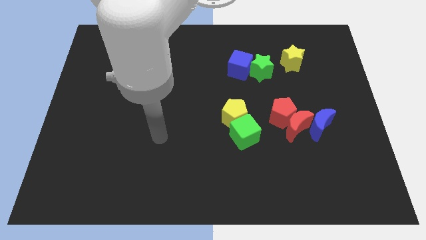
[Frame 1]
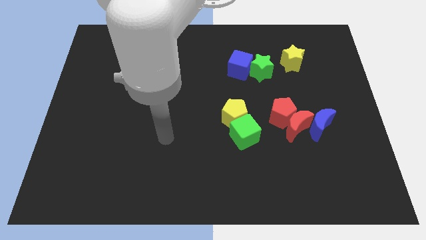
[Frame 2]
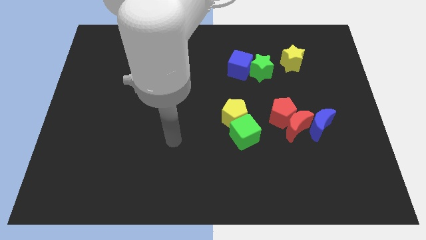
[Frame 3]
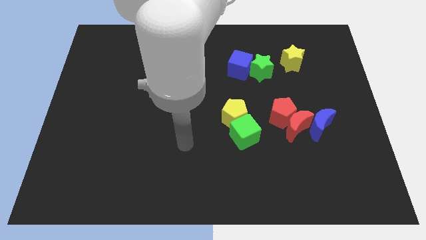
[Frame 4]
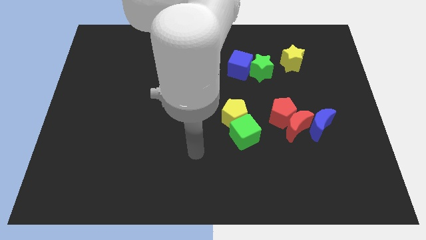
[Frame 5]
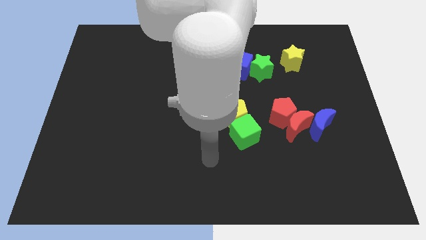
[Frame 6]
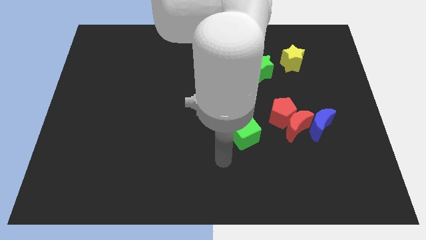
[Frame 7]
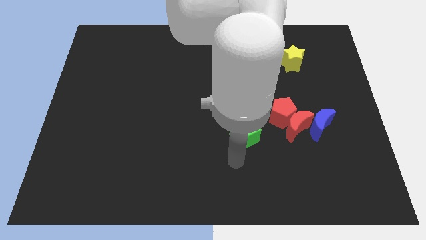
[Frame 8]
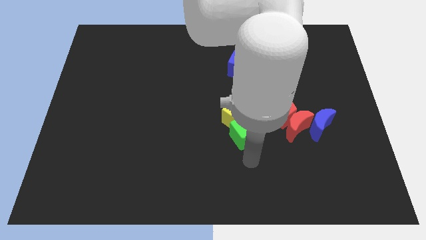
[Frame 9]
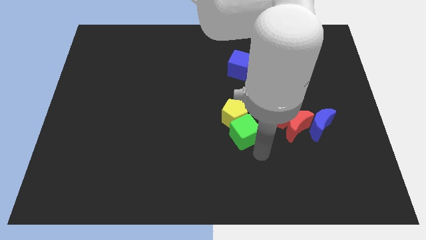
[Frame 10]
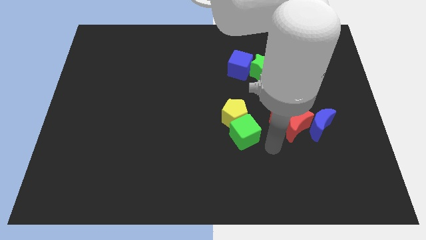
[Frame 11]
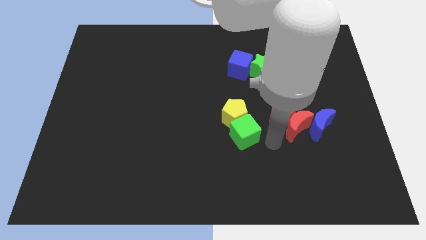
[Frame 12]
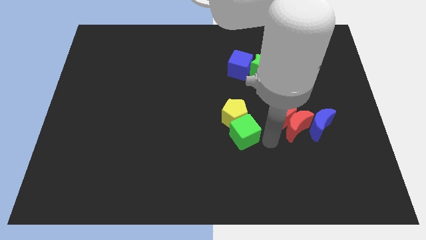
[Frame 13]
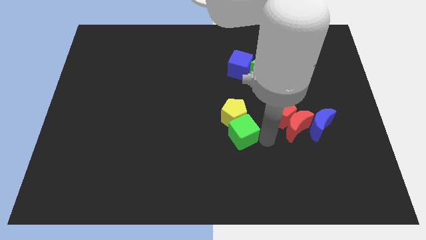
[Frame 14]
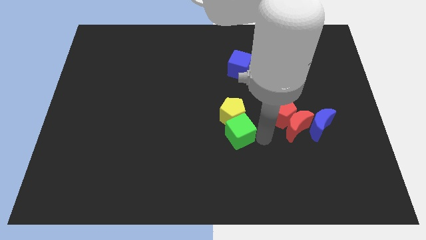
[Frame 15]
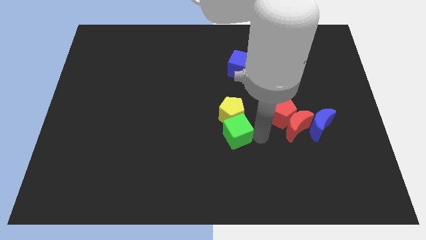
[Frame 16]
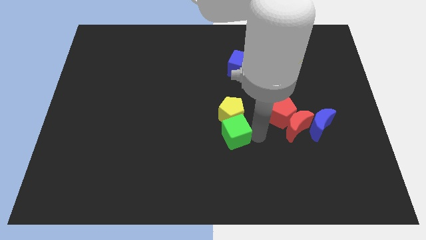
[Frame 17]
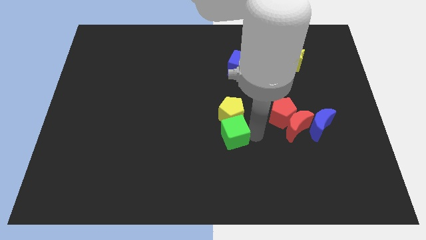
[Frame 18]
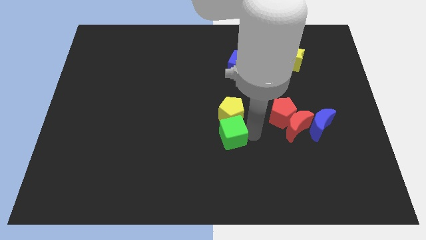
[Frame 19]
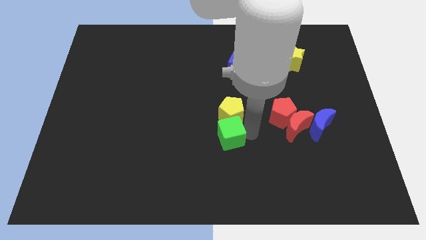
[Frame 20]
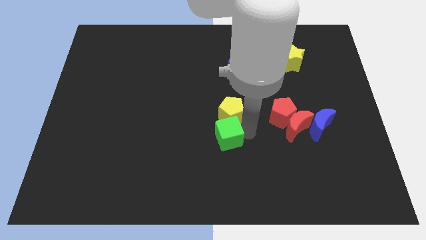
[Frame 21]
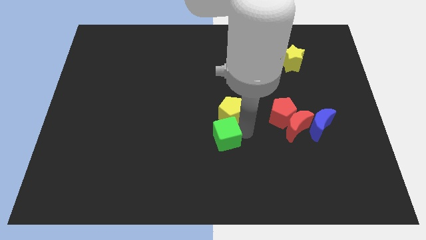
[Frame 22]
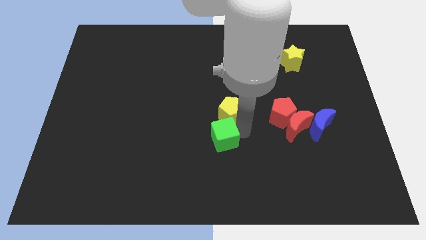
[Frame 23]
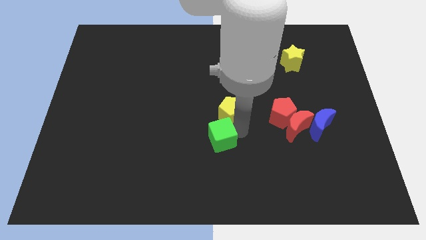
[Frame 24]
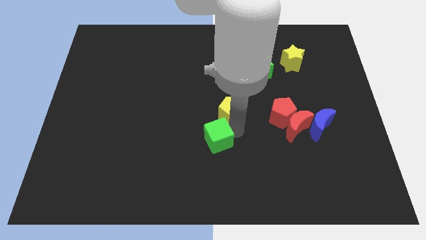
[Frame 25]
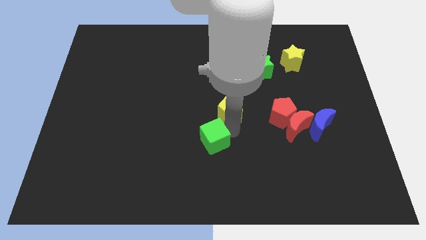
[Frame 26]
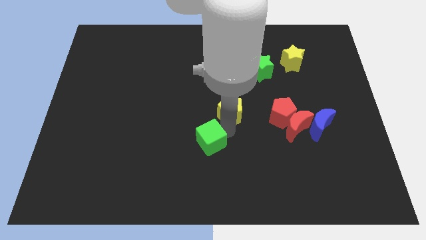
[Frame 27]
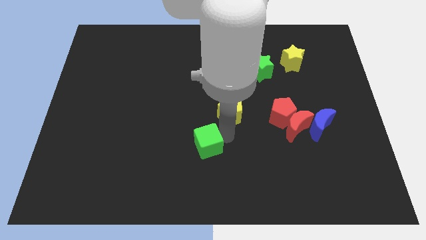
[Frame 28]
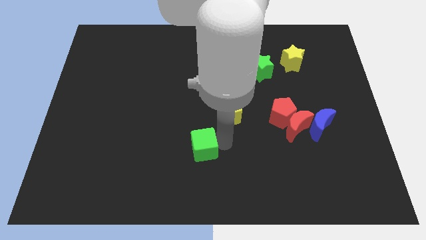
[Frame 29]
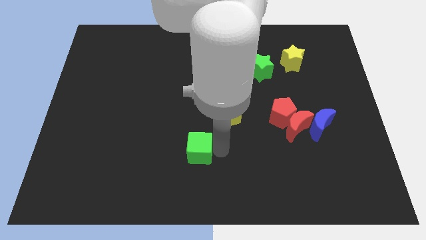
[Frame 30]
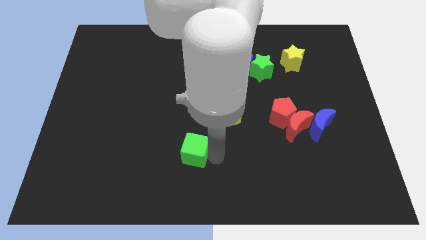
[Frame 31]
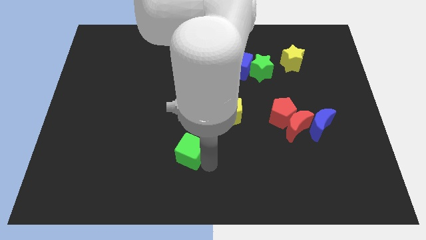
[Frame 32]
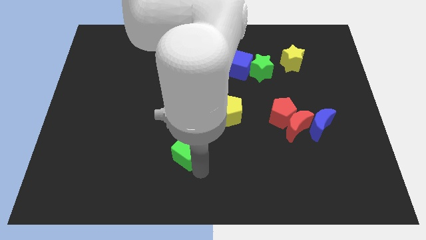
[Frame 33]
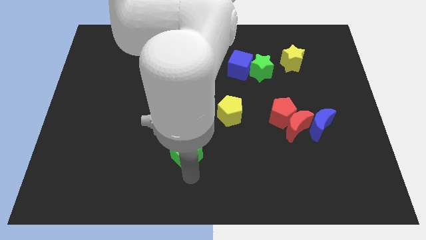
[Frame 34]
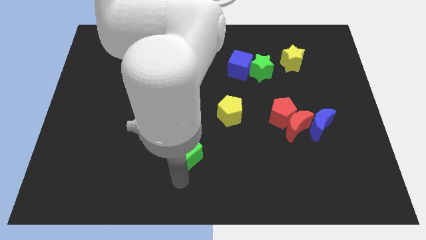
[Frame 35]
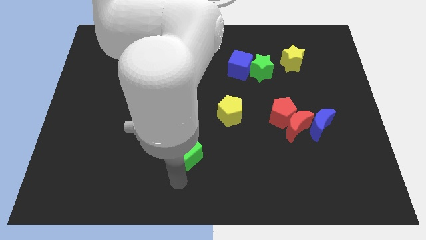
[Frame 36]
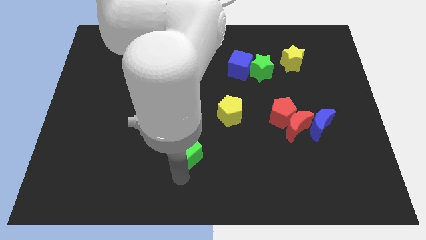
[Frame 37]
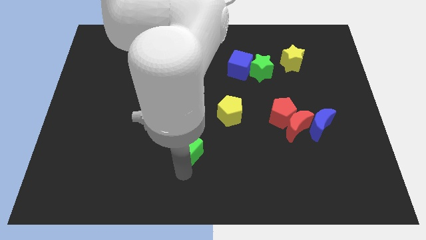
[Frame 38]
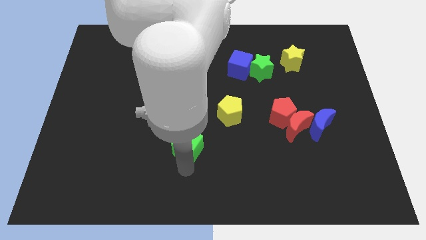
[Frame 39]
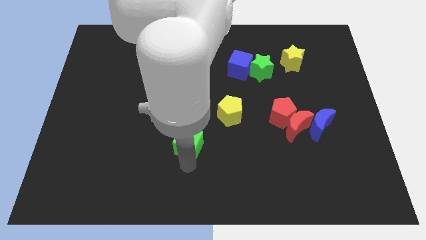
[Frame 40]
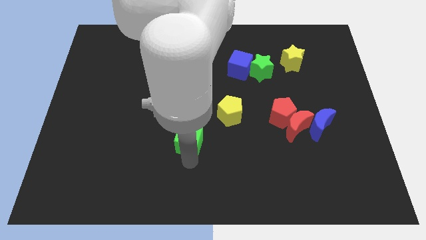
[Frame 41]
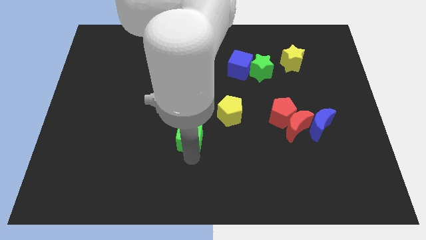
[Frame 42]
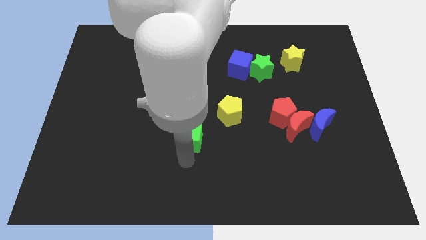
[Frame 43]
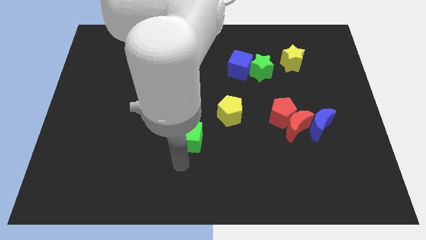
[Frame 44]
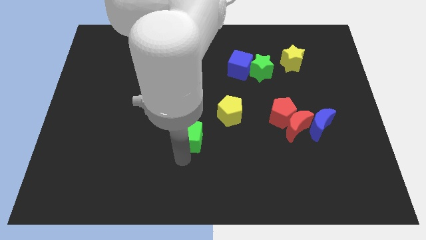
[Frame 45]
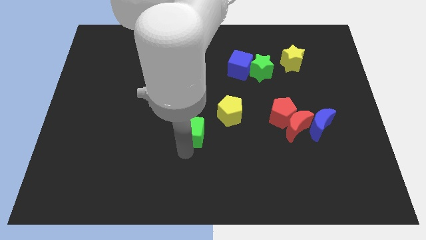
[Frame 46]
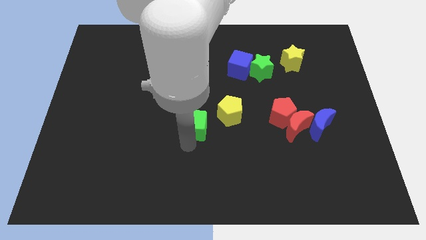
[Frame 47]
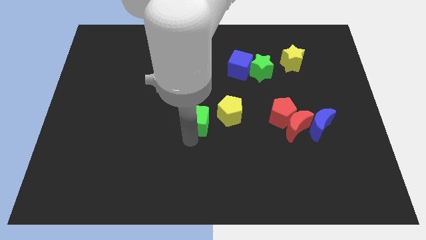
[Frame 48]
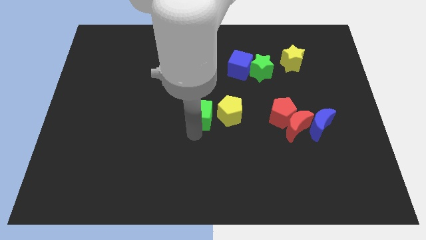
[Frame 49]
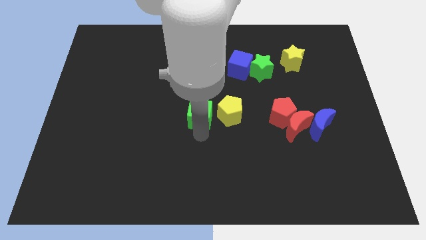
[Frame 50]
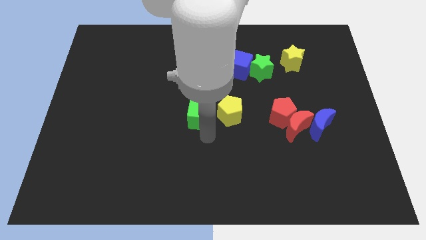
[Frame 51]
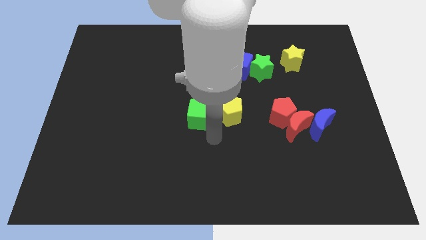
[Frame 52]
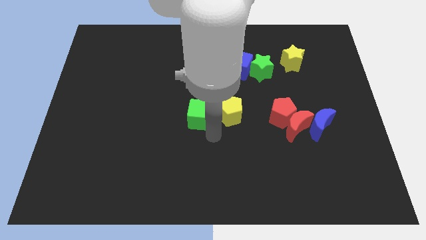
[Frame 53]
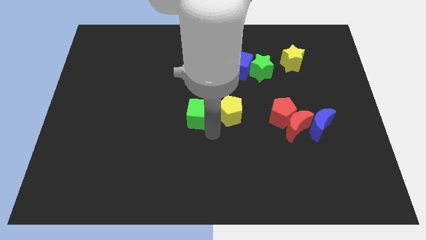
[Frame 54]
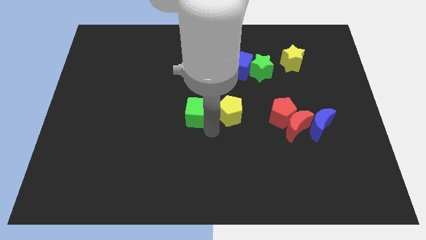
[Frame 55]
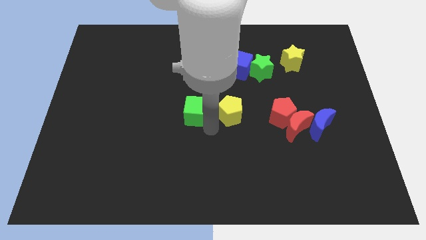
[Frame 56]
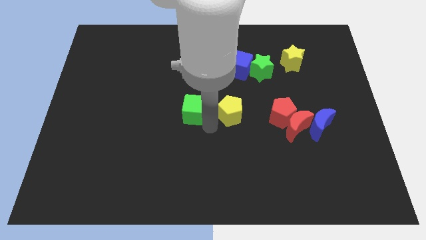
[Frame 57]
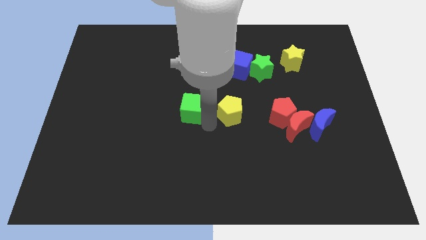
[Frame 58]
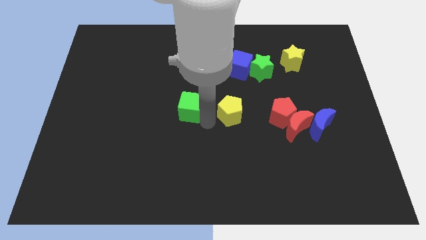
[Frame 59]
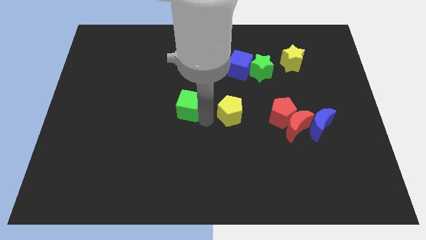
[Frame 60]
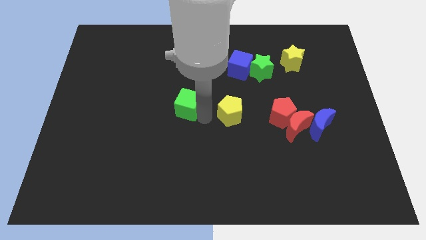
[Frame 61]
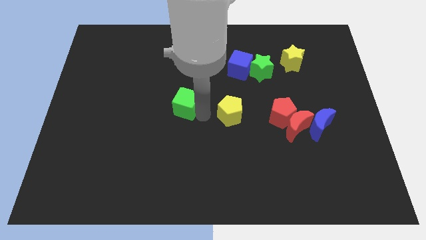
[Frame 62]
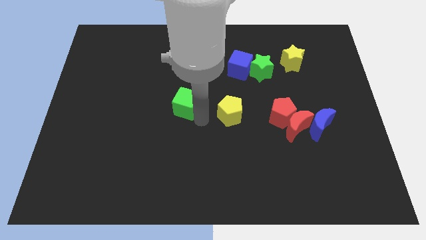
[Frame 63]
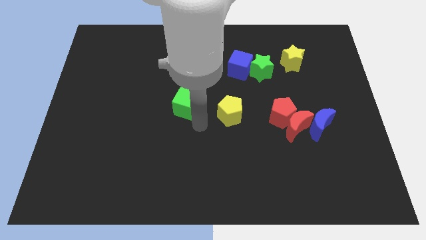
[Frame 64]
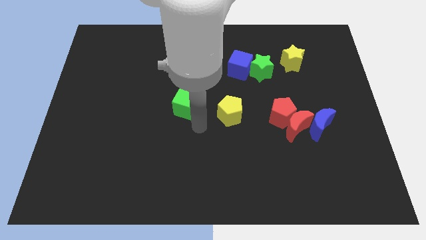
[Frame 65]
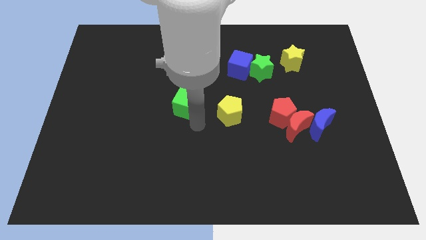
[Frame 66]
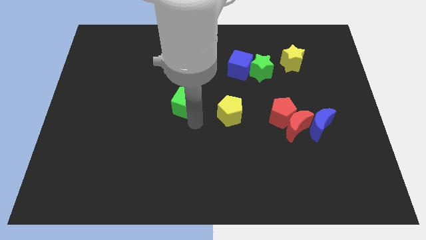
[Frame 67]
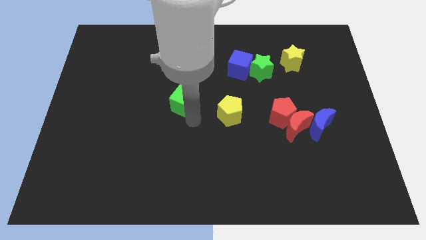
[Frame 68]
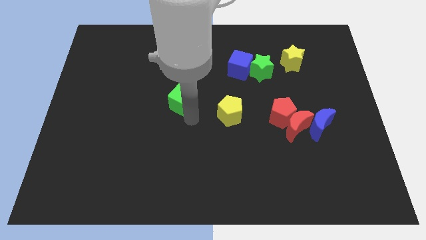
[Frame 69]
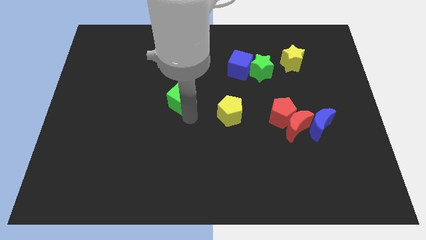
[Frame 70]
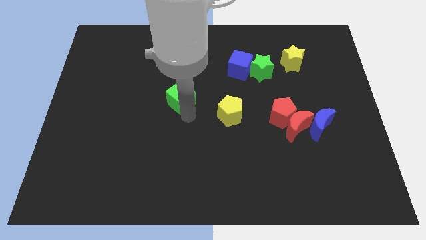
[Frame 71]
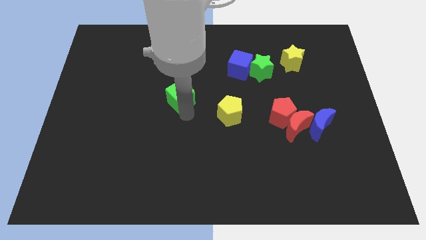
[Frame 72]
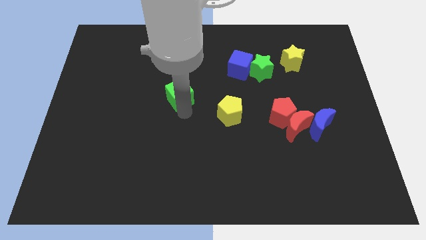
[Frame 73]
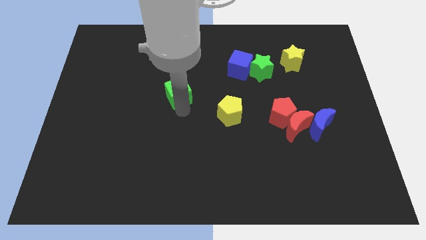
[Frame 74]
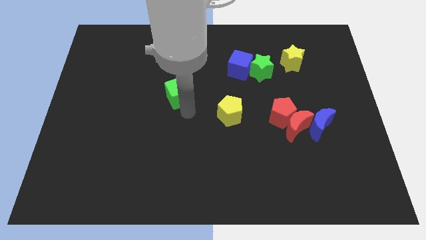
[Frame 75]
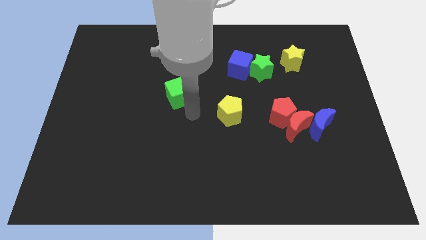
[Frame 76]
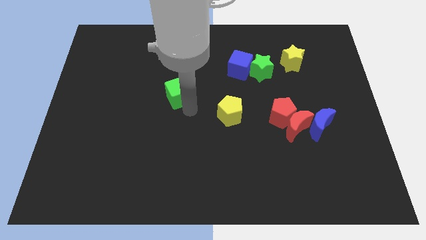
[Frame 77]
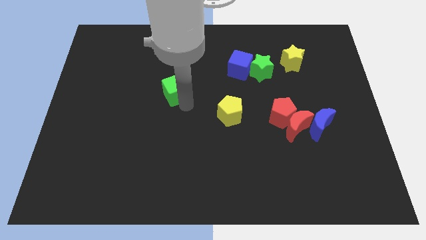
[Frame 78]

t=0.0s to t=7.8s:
move the green cube diagonally up and to the left
